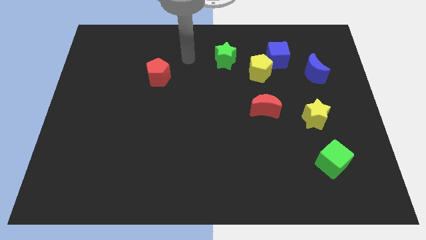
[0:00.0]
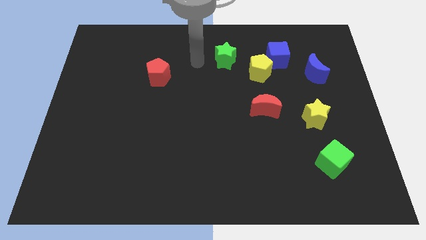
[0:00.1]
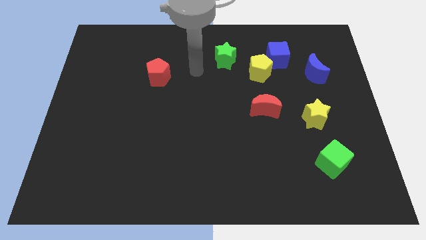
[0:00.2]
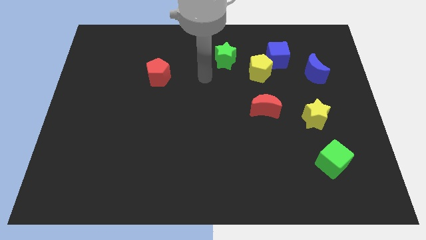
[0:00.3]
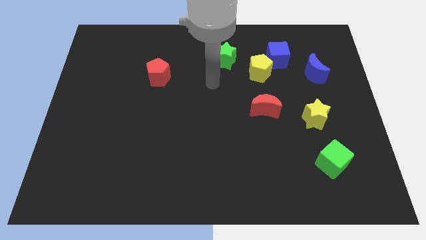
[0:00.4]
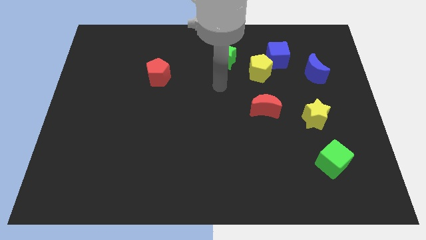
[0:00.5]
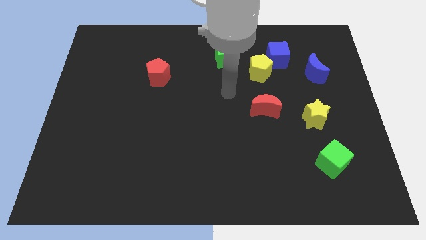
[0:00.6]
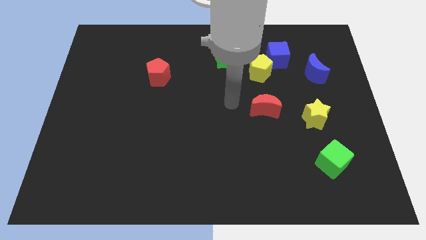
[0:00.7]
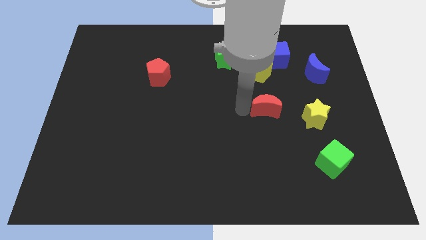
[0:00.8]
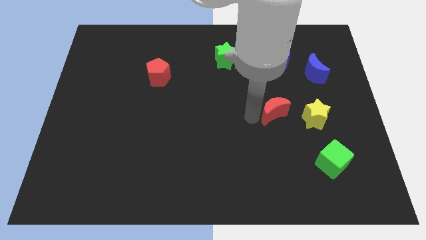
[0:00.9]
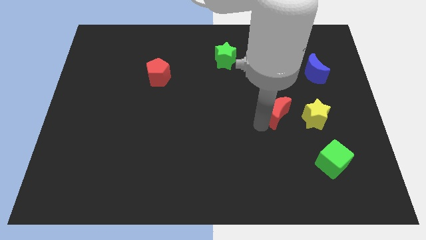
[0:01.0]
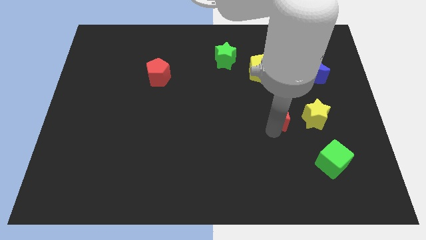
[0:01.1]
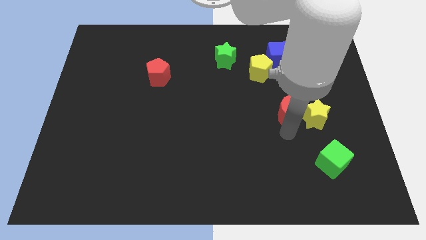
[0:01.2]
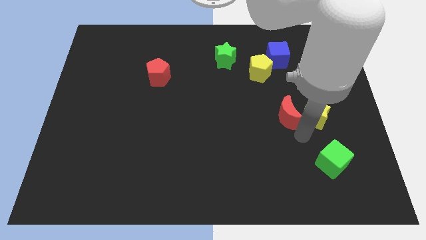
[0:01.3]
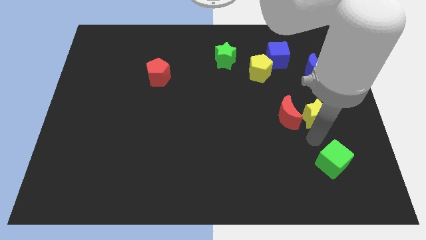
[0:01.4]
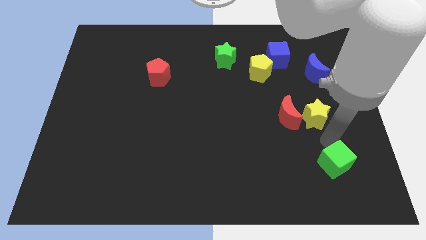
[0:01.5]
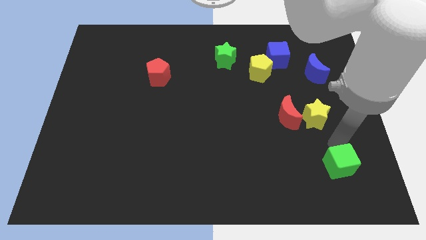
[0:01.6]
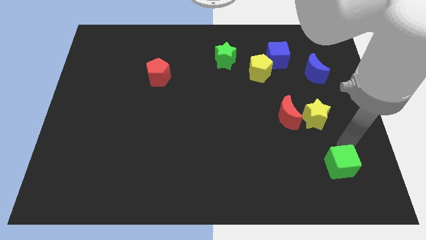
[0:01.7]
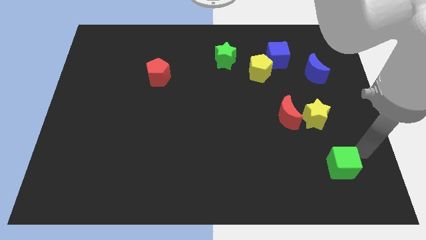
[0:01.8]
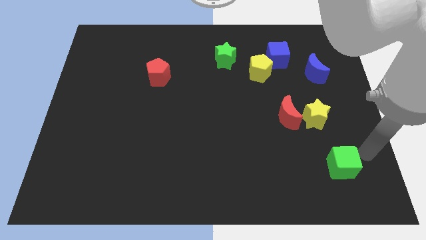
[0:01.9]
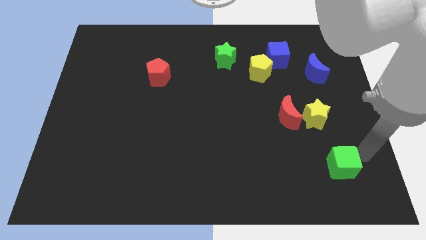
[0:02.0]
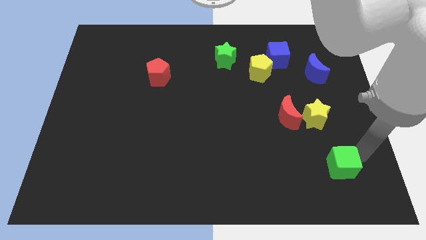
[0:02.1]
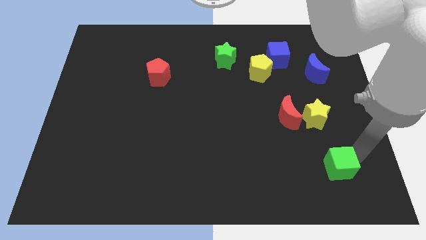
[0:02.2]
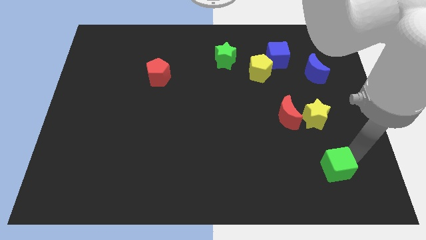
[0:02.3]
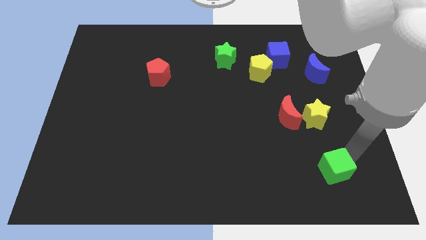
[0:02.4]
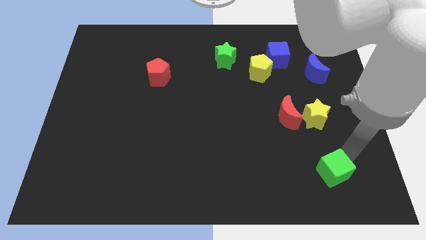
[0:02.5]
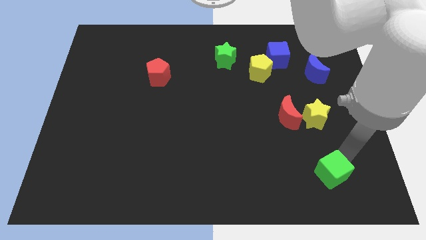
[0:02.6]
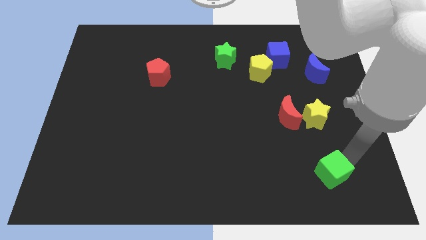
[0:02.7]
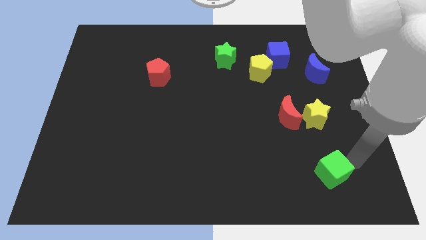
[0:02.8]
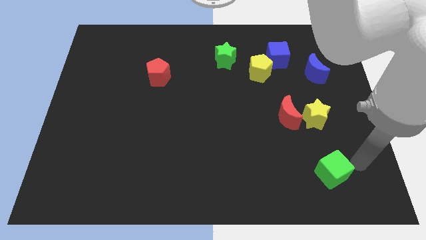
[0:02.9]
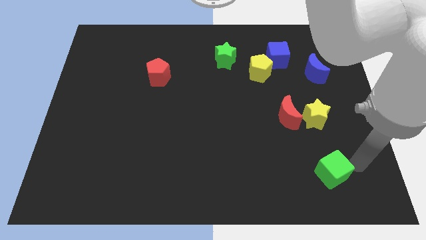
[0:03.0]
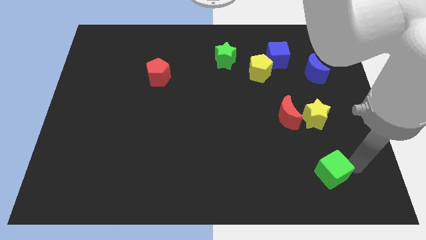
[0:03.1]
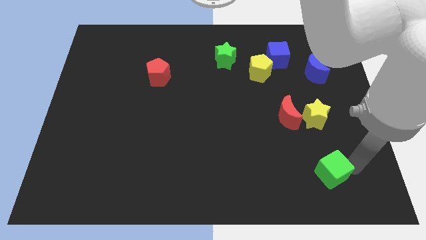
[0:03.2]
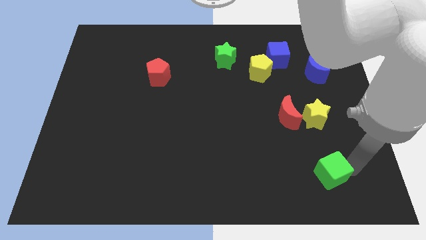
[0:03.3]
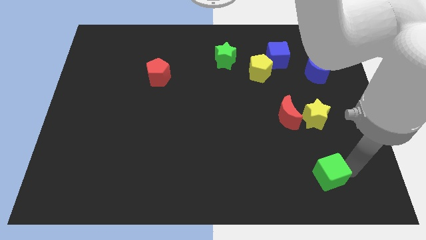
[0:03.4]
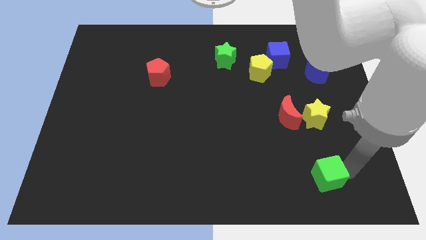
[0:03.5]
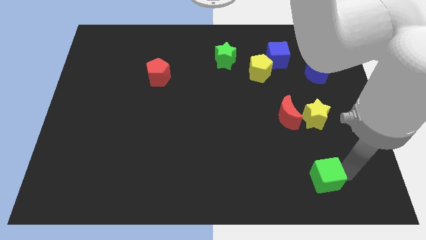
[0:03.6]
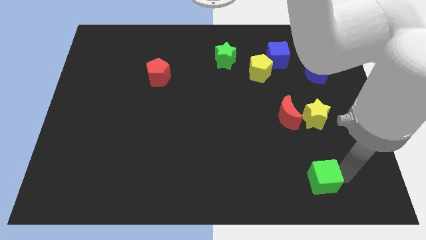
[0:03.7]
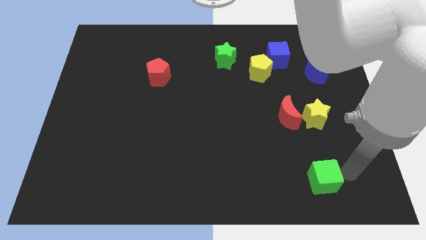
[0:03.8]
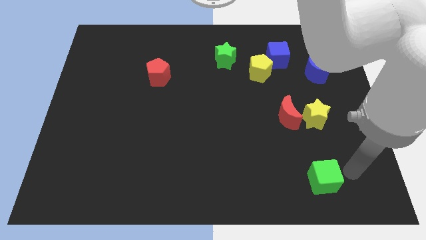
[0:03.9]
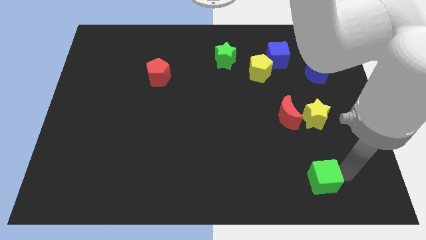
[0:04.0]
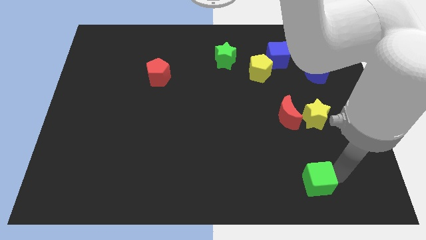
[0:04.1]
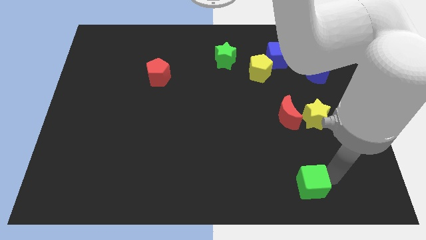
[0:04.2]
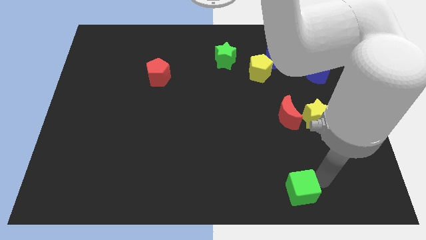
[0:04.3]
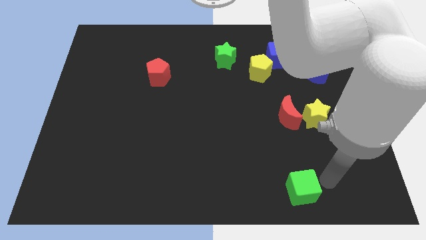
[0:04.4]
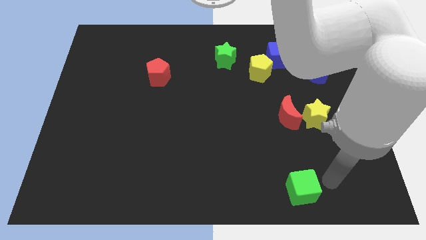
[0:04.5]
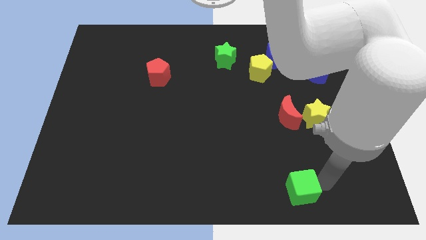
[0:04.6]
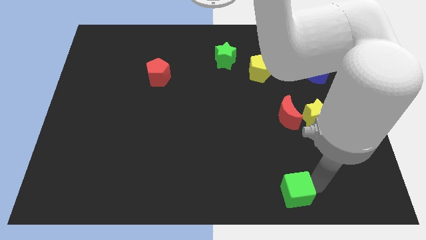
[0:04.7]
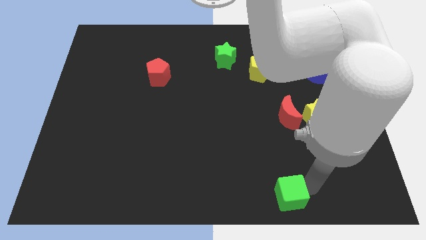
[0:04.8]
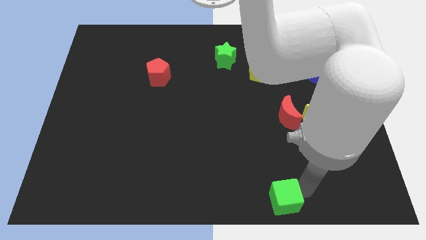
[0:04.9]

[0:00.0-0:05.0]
put the green cube to the bottom

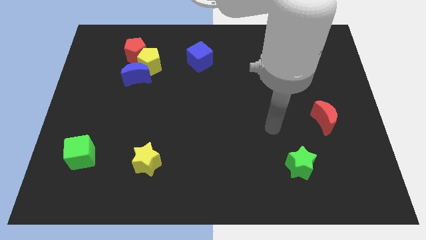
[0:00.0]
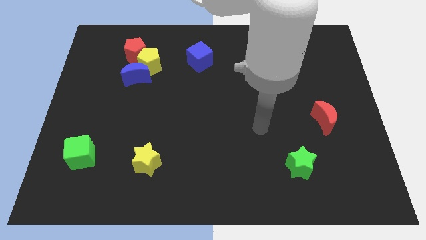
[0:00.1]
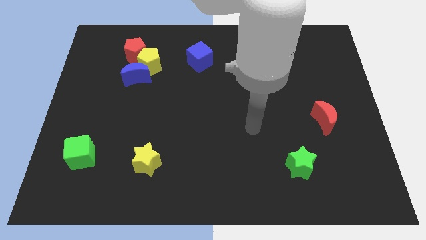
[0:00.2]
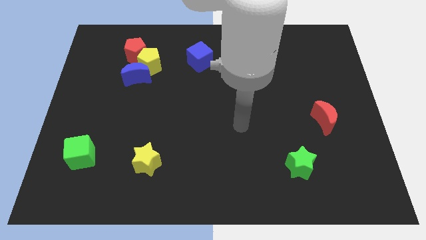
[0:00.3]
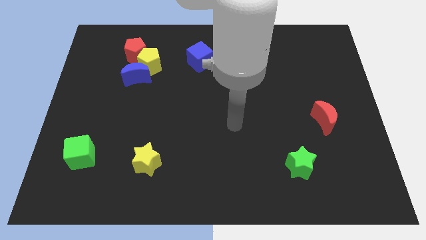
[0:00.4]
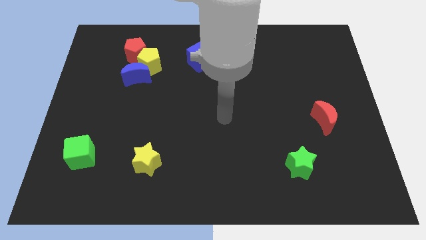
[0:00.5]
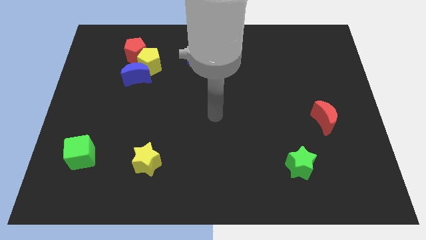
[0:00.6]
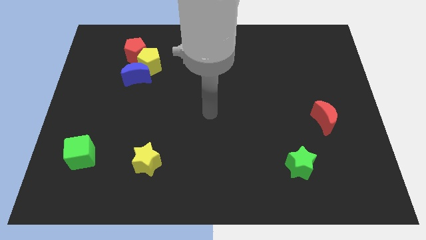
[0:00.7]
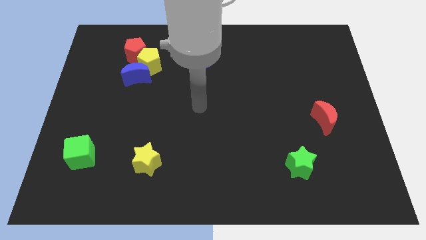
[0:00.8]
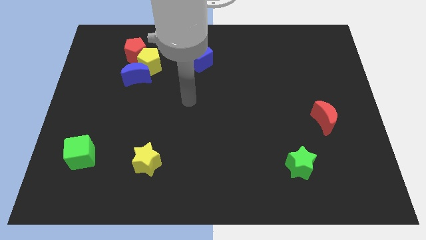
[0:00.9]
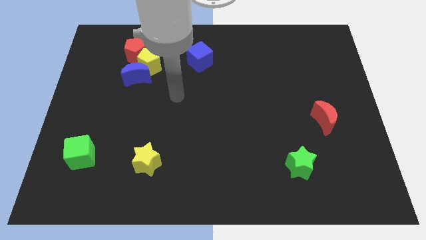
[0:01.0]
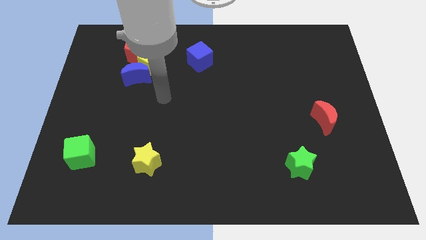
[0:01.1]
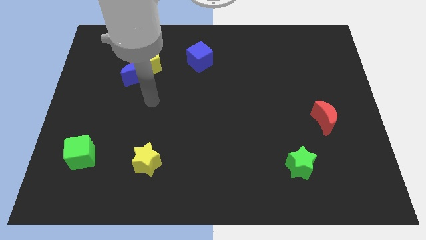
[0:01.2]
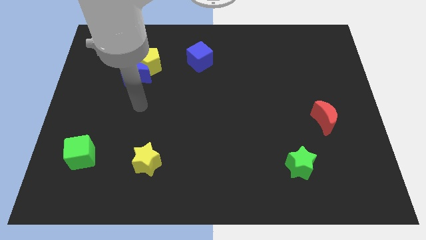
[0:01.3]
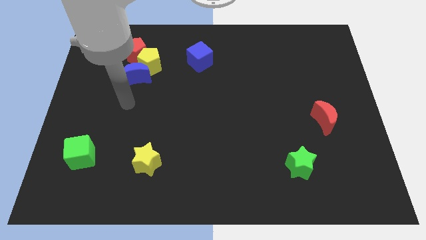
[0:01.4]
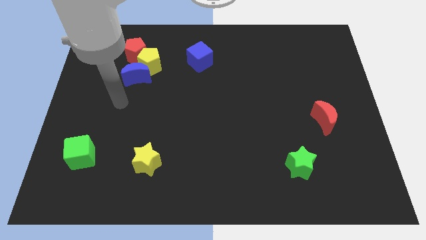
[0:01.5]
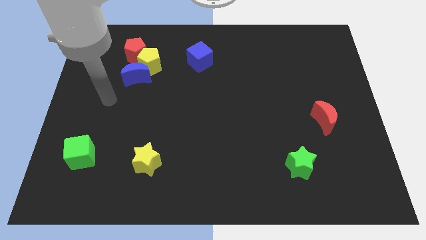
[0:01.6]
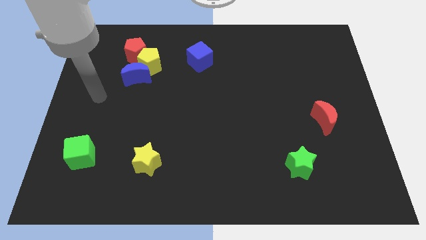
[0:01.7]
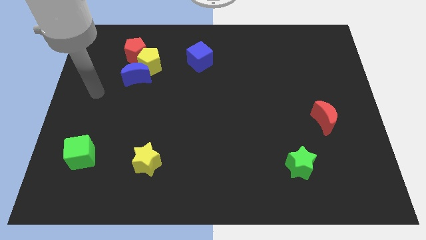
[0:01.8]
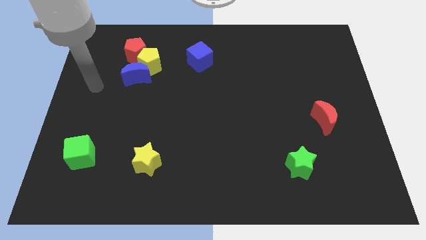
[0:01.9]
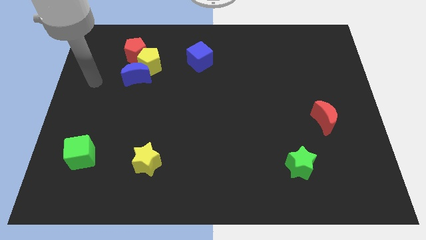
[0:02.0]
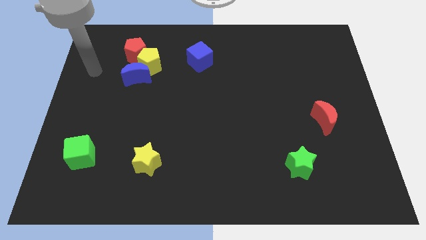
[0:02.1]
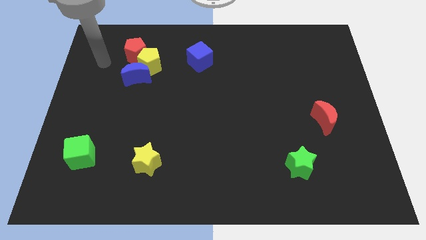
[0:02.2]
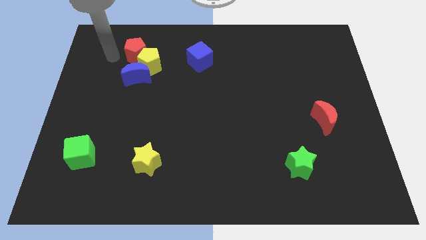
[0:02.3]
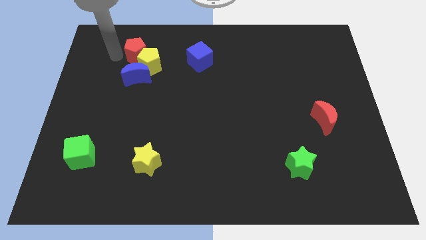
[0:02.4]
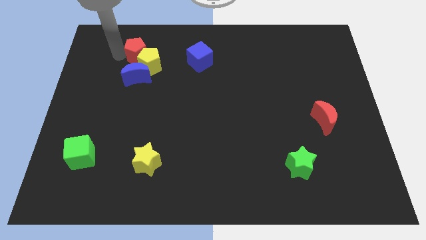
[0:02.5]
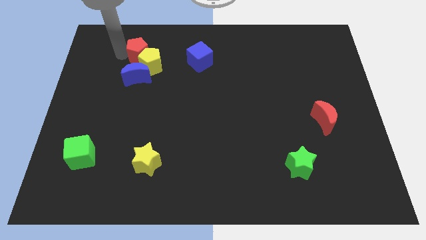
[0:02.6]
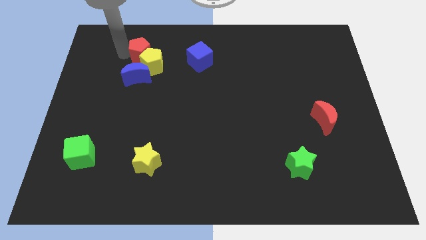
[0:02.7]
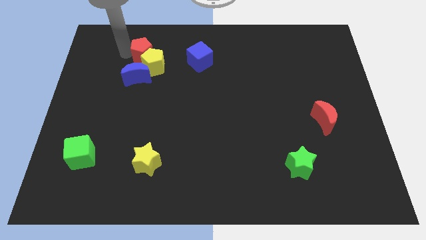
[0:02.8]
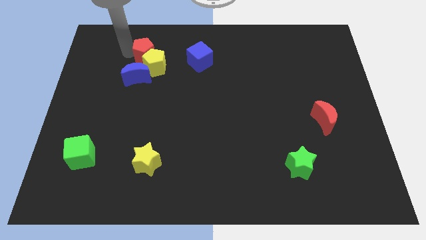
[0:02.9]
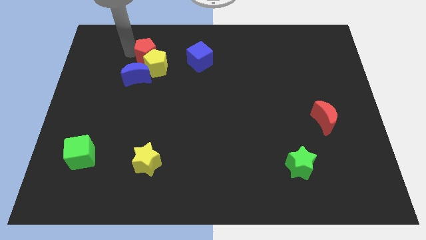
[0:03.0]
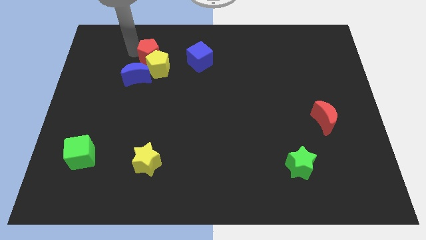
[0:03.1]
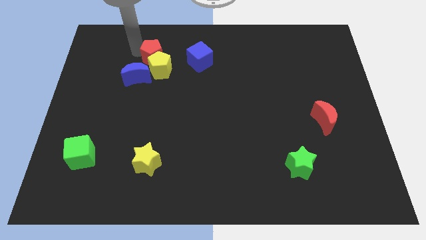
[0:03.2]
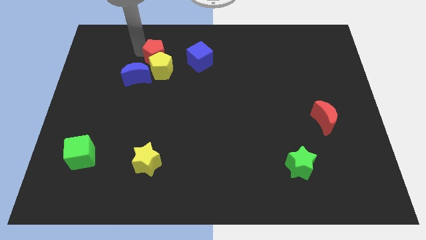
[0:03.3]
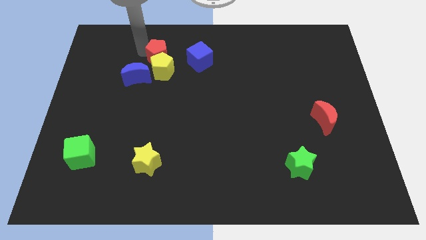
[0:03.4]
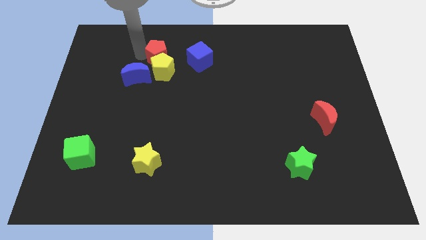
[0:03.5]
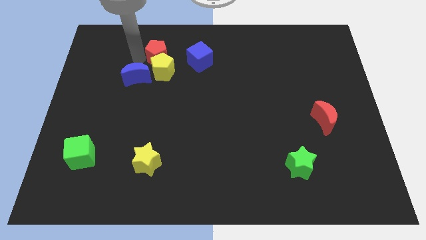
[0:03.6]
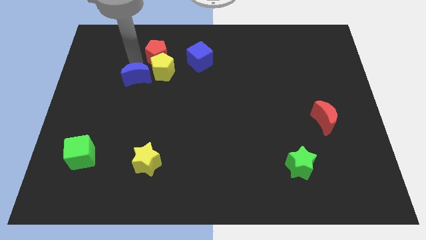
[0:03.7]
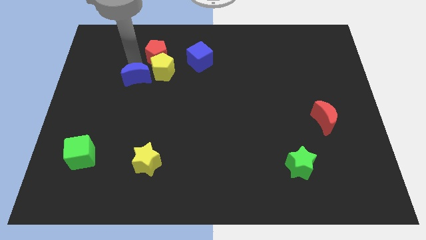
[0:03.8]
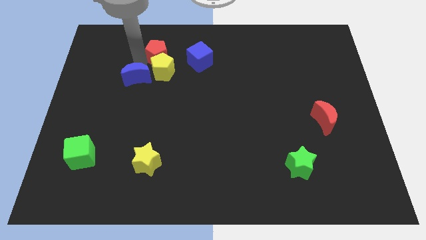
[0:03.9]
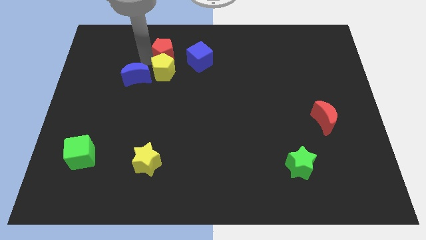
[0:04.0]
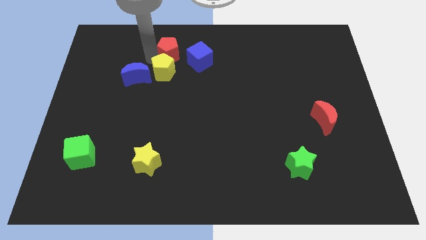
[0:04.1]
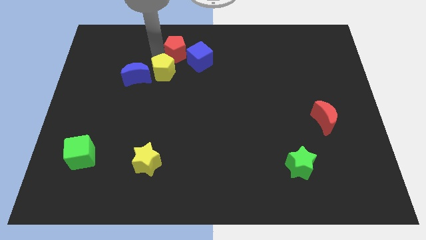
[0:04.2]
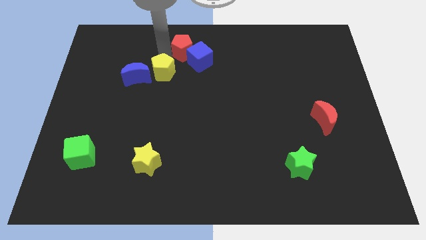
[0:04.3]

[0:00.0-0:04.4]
slide the red pentagon to the top
